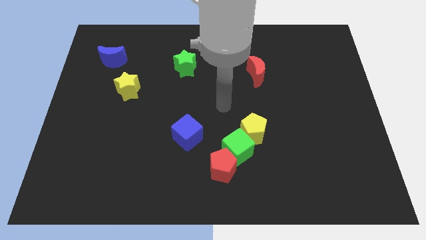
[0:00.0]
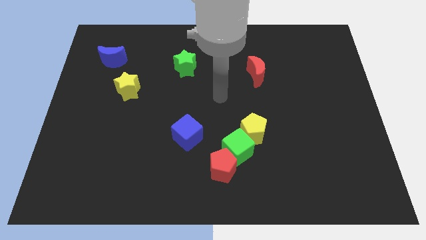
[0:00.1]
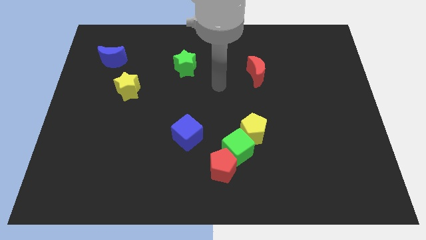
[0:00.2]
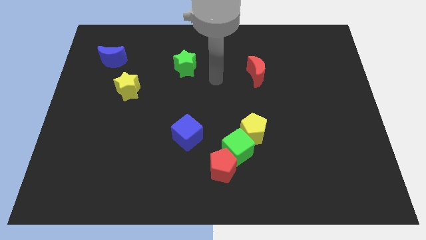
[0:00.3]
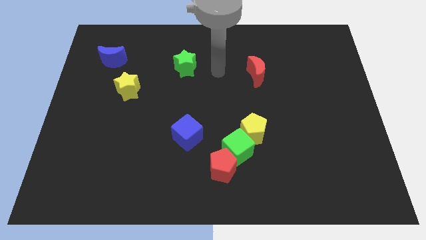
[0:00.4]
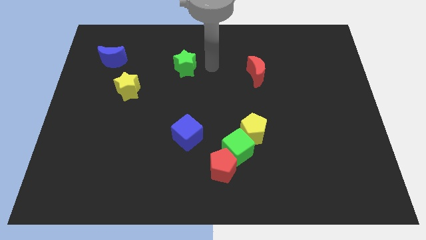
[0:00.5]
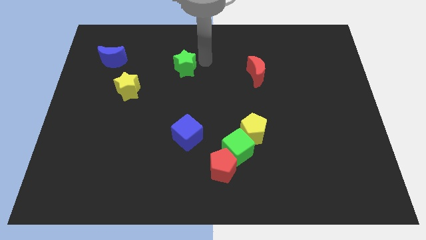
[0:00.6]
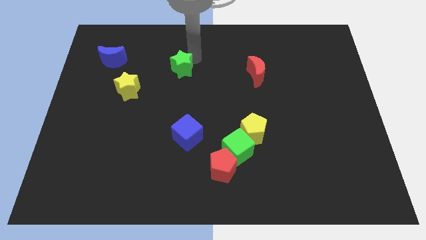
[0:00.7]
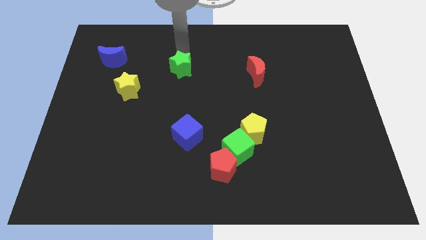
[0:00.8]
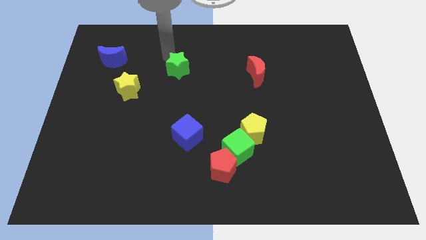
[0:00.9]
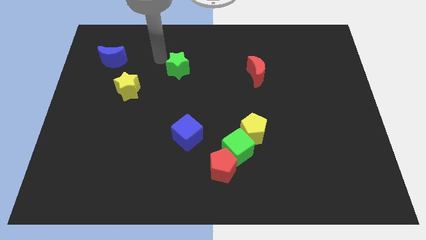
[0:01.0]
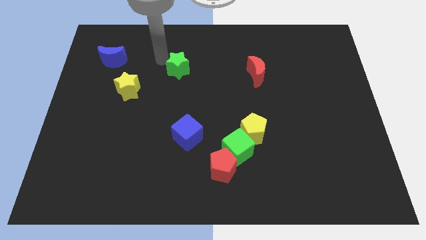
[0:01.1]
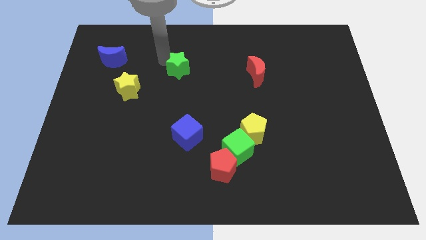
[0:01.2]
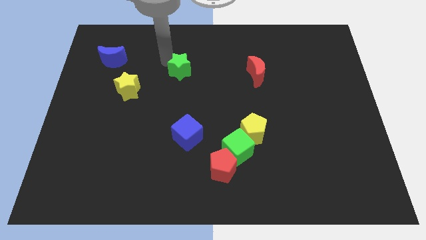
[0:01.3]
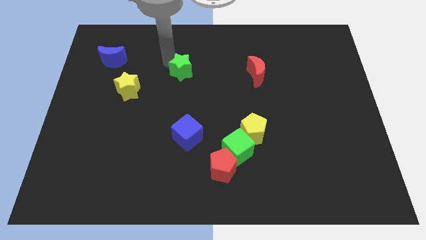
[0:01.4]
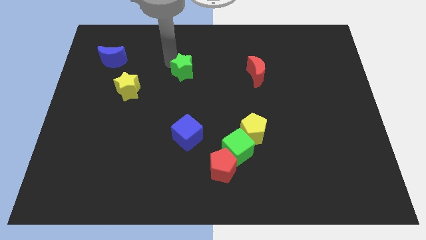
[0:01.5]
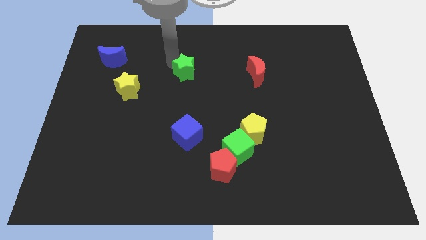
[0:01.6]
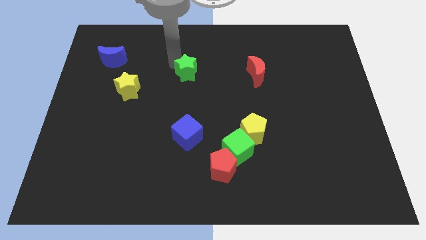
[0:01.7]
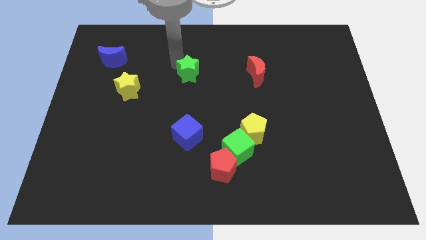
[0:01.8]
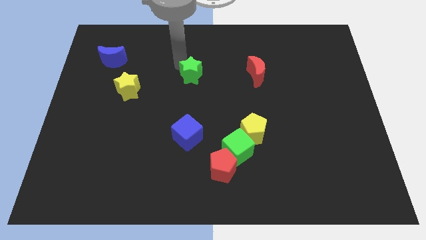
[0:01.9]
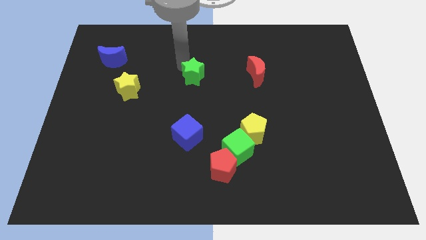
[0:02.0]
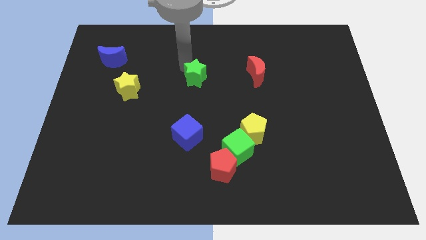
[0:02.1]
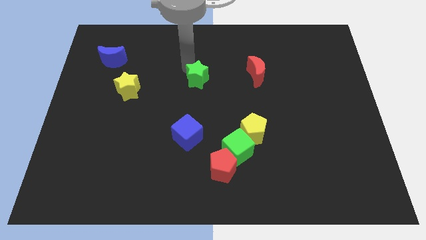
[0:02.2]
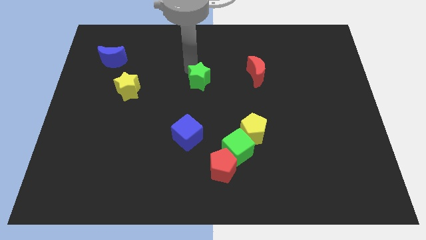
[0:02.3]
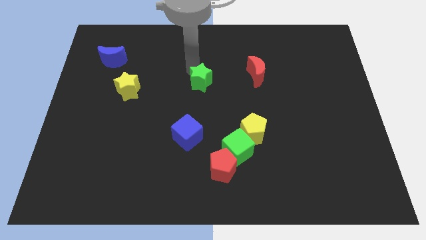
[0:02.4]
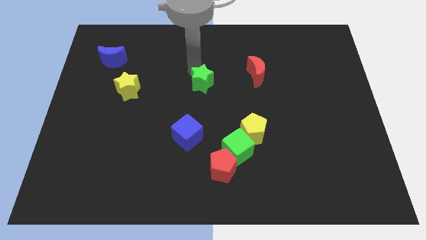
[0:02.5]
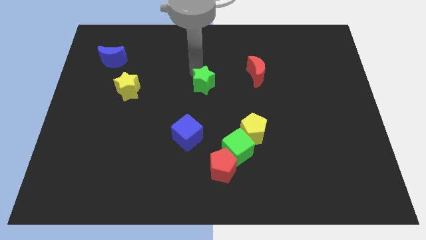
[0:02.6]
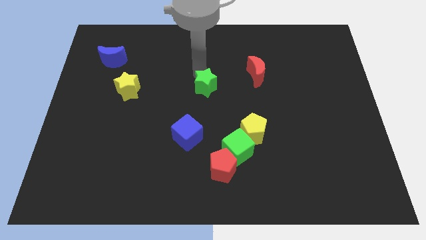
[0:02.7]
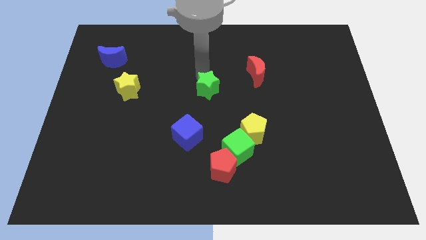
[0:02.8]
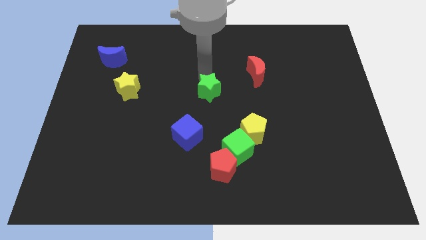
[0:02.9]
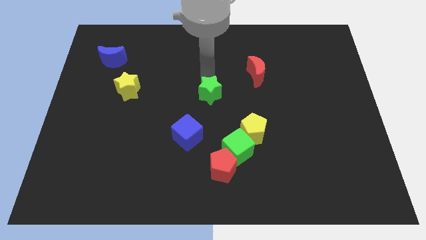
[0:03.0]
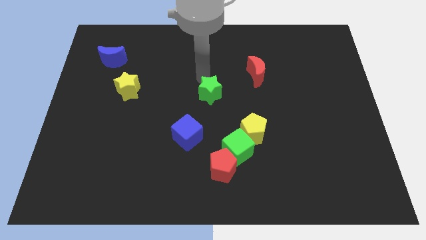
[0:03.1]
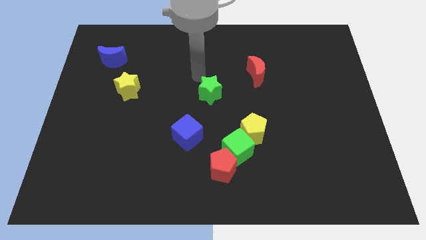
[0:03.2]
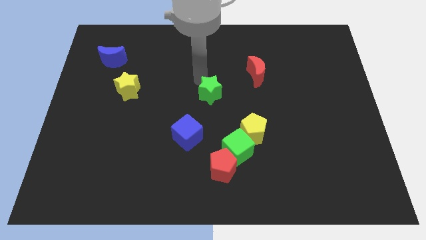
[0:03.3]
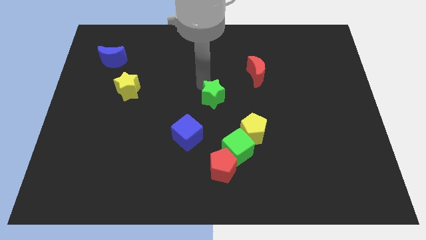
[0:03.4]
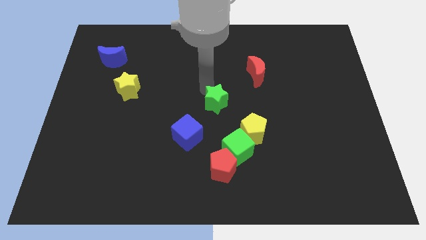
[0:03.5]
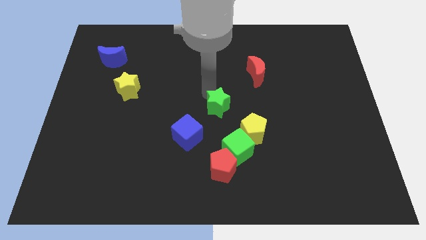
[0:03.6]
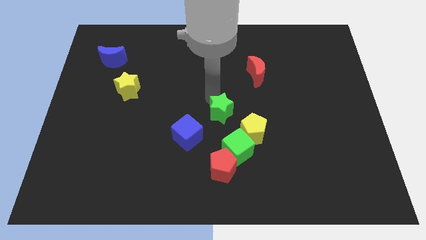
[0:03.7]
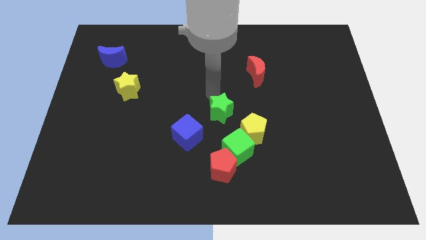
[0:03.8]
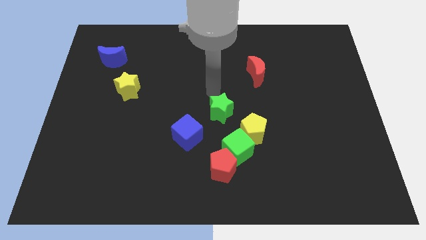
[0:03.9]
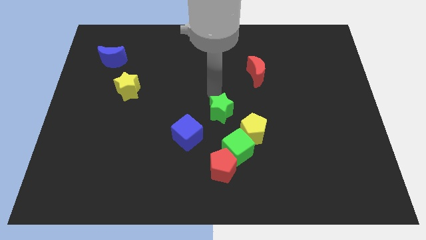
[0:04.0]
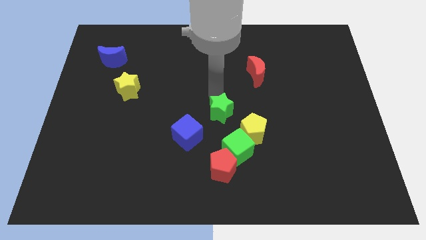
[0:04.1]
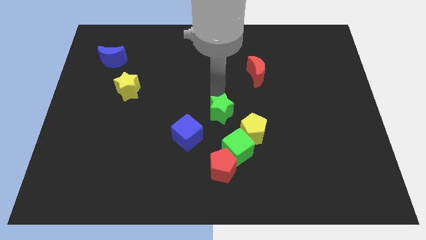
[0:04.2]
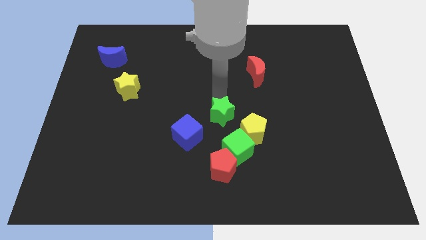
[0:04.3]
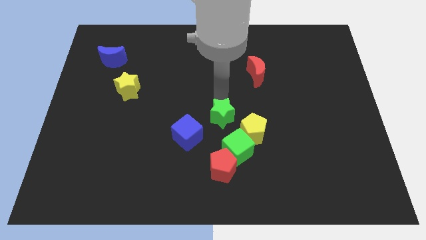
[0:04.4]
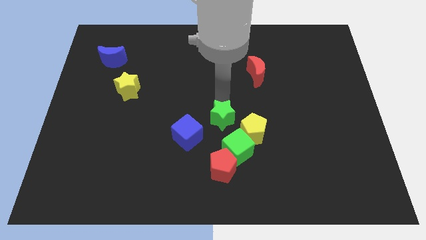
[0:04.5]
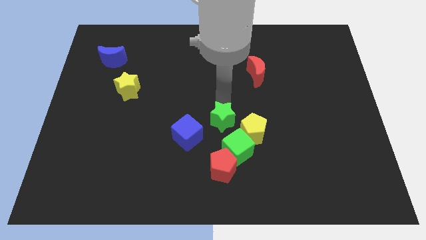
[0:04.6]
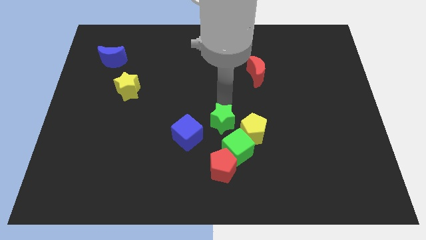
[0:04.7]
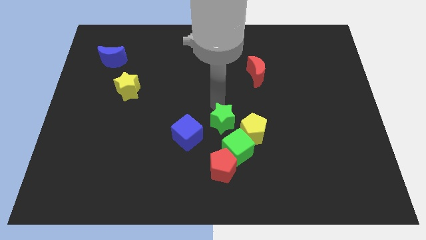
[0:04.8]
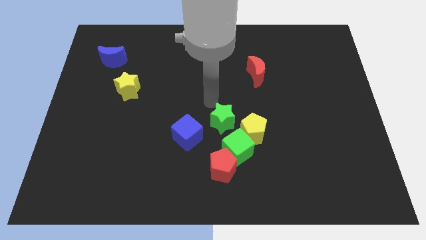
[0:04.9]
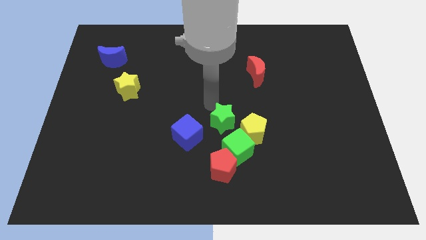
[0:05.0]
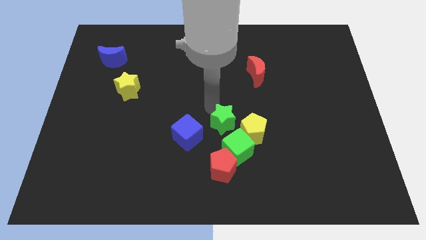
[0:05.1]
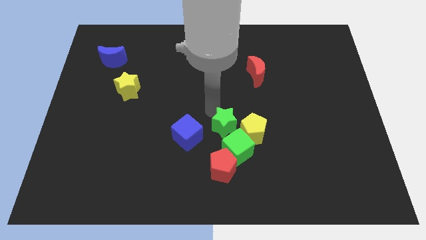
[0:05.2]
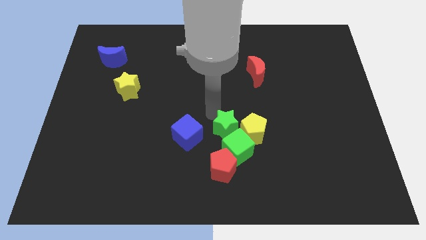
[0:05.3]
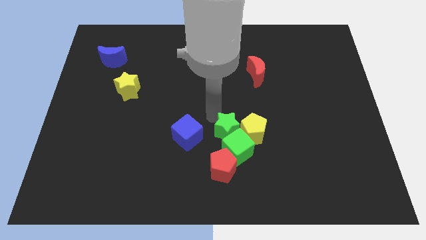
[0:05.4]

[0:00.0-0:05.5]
move the green star next to the green cube

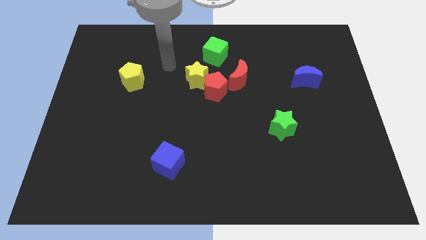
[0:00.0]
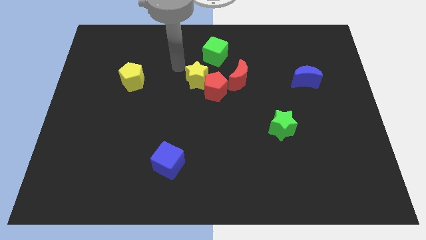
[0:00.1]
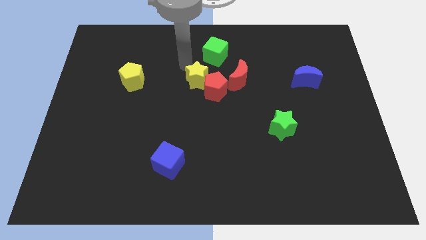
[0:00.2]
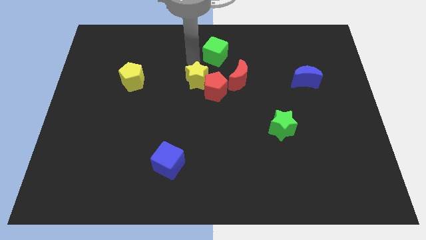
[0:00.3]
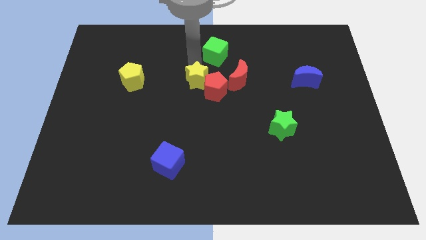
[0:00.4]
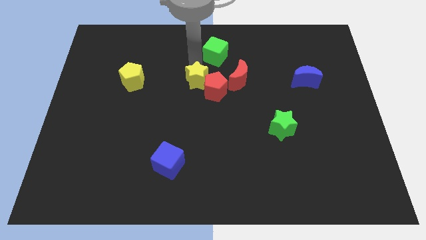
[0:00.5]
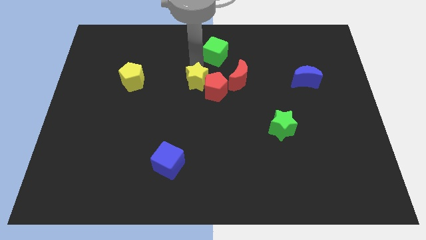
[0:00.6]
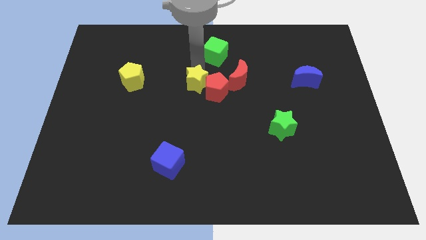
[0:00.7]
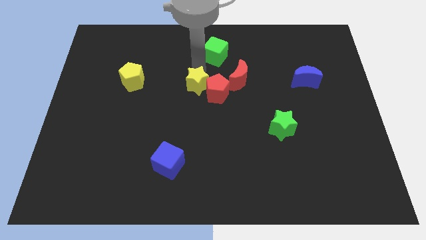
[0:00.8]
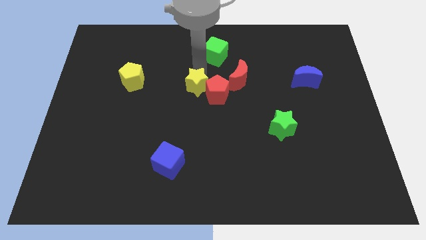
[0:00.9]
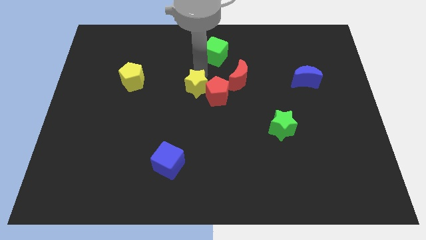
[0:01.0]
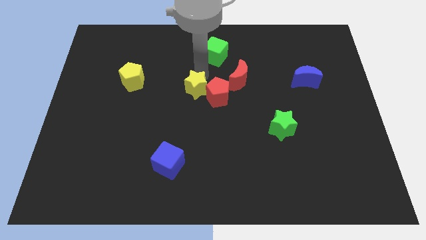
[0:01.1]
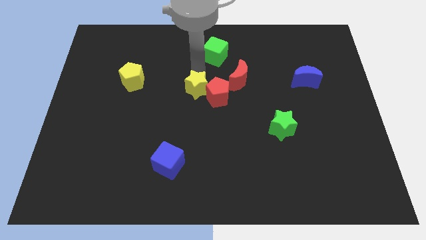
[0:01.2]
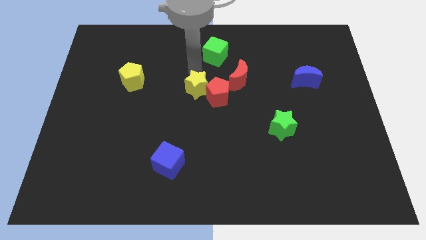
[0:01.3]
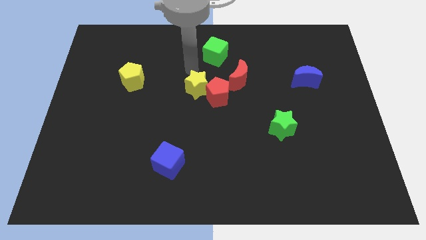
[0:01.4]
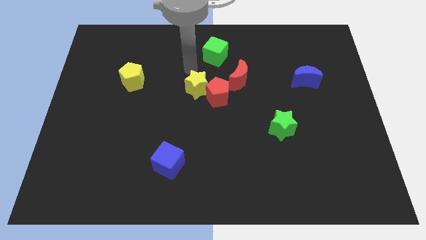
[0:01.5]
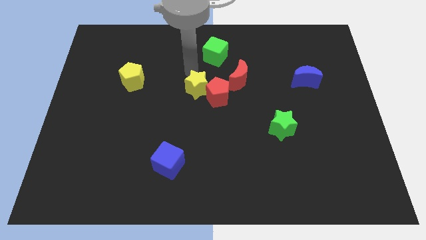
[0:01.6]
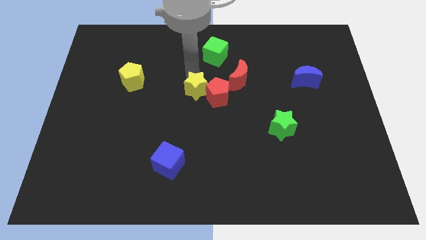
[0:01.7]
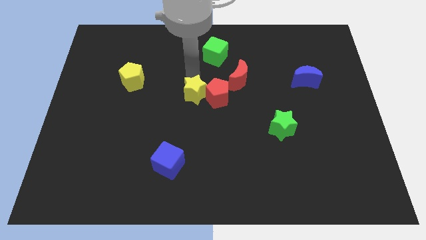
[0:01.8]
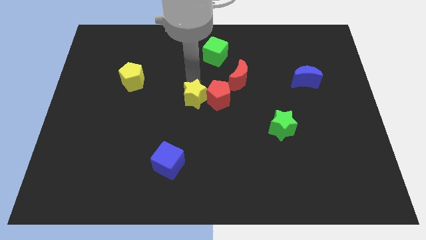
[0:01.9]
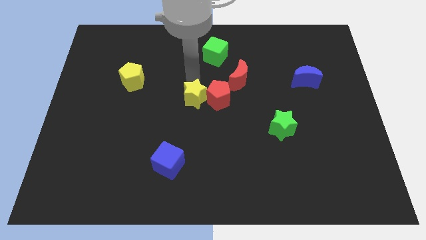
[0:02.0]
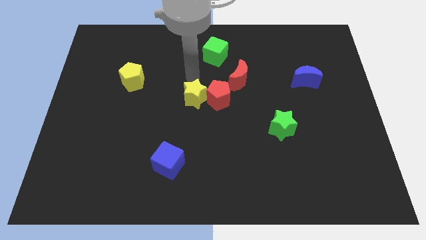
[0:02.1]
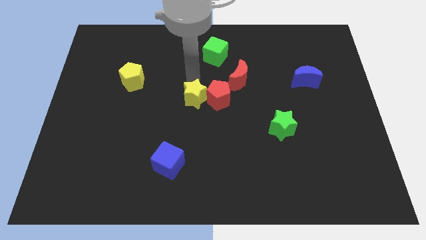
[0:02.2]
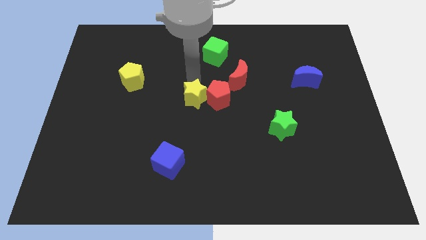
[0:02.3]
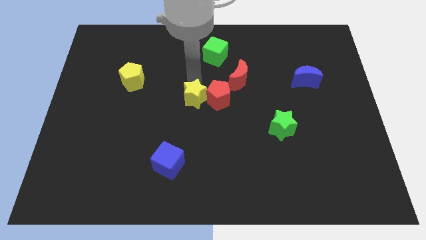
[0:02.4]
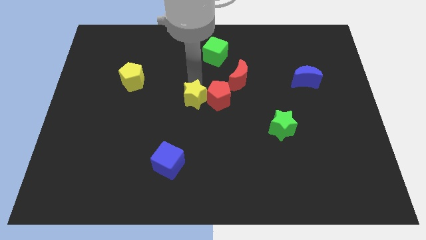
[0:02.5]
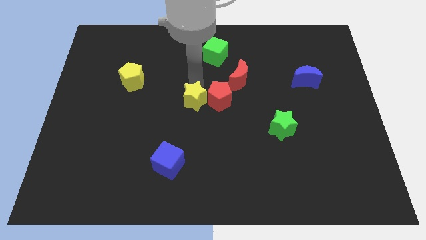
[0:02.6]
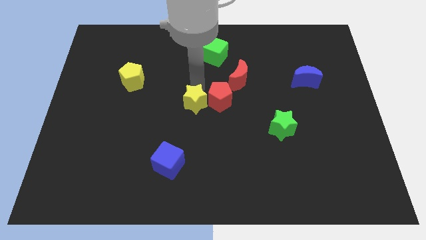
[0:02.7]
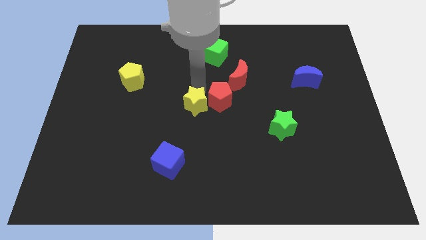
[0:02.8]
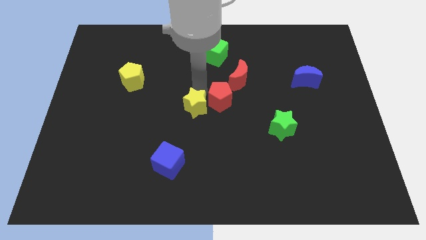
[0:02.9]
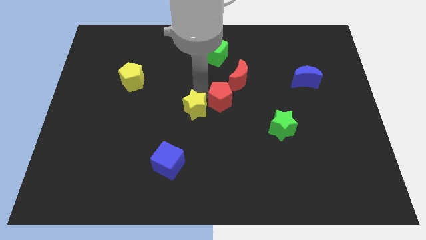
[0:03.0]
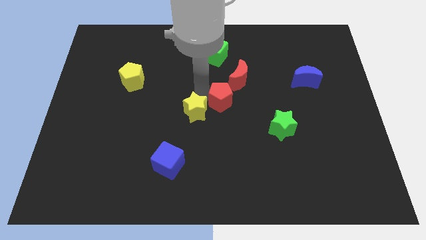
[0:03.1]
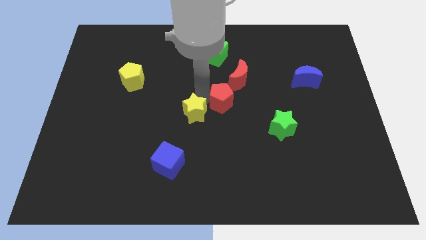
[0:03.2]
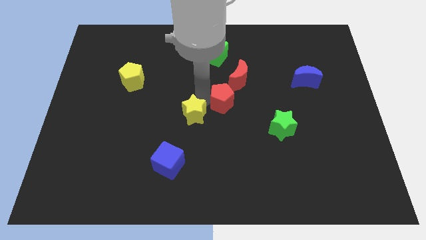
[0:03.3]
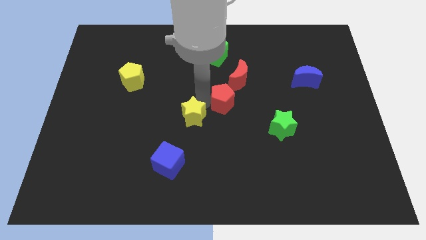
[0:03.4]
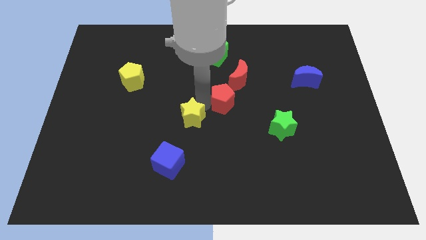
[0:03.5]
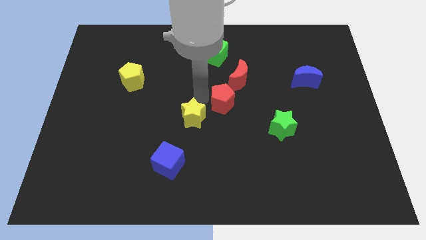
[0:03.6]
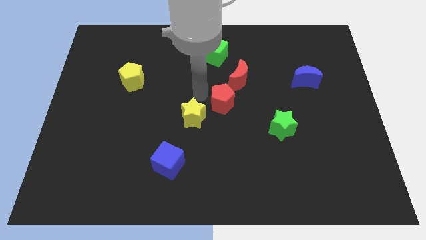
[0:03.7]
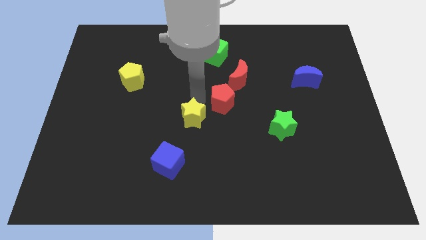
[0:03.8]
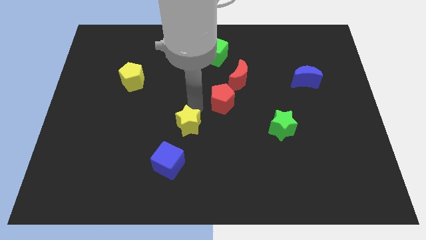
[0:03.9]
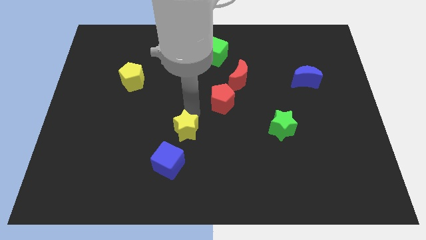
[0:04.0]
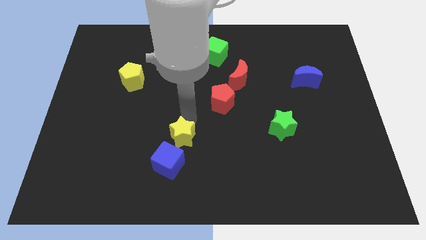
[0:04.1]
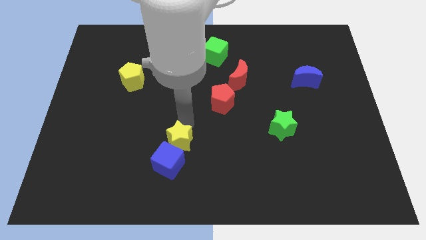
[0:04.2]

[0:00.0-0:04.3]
slide the yellow star towards the blue cube
